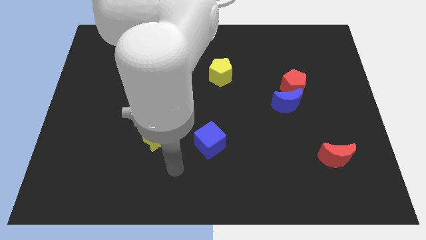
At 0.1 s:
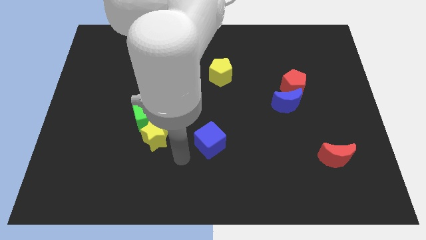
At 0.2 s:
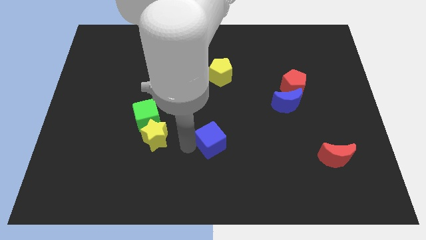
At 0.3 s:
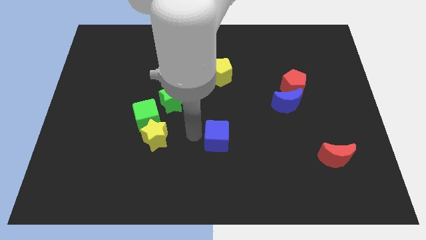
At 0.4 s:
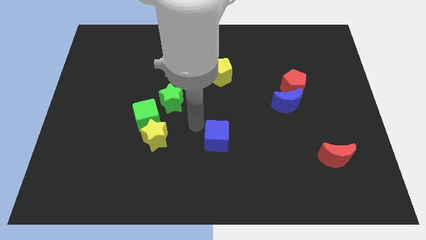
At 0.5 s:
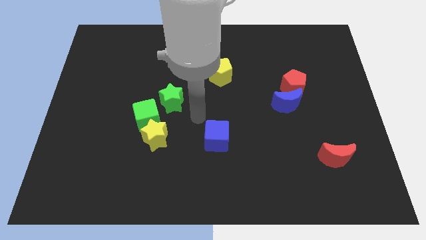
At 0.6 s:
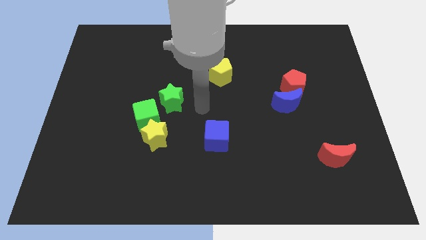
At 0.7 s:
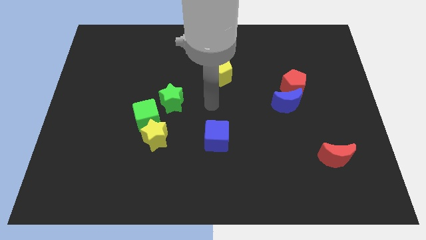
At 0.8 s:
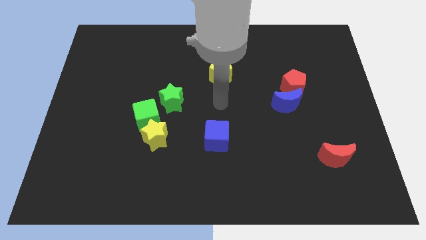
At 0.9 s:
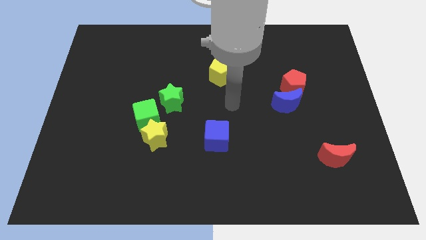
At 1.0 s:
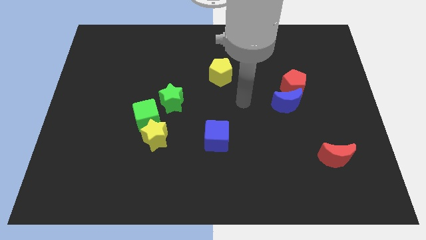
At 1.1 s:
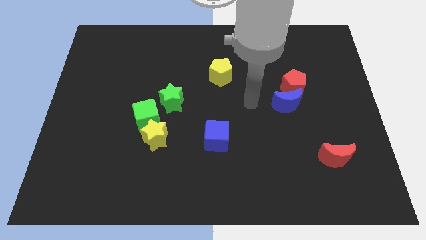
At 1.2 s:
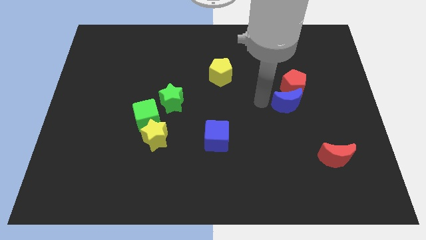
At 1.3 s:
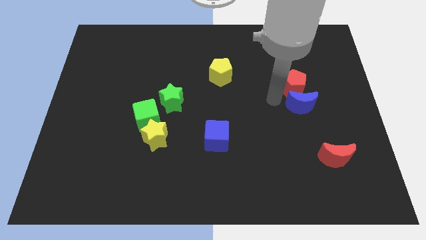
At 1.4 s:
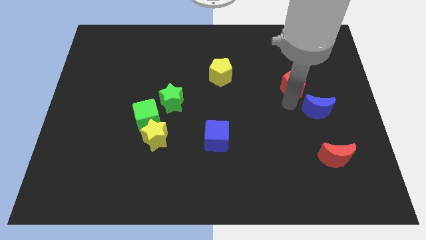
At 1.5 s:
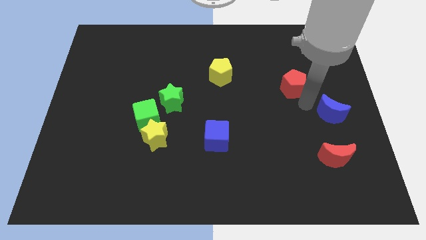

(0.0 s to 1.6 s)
separate the red pentagon from the blue moon

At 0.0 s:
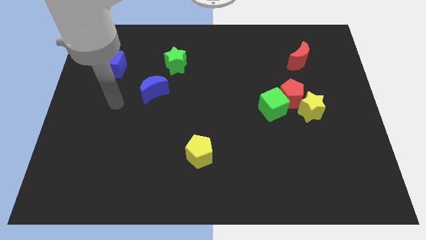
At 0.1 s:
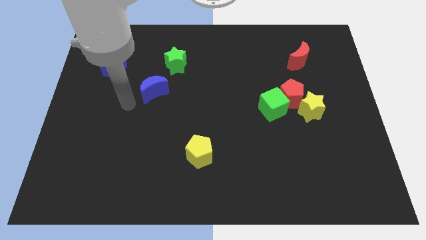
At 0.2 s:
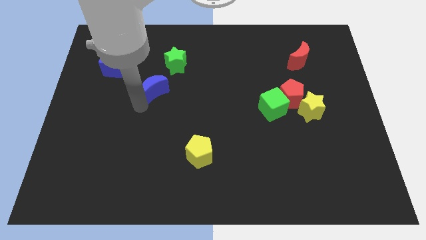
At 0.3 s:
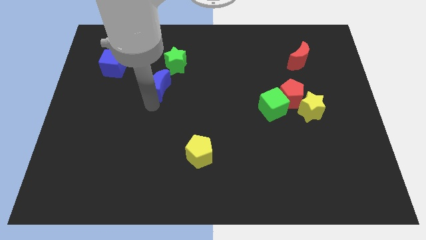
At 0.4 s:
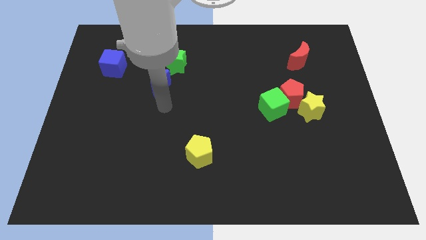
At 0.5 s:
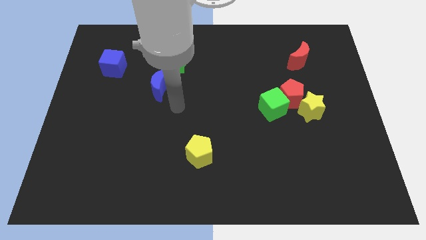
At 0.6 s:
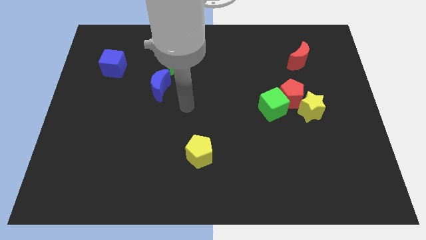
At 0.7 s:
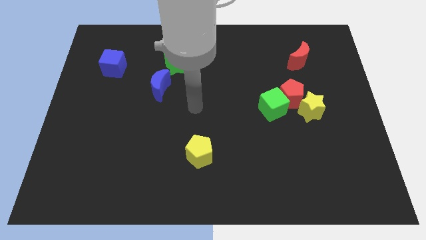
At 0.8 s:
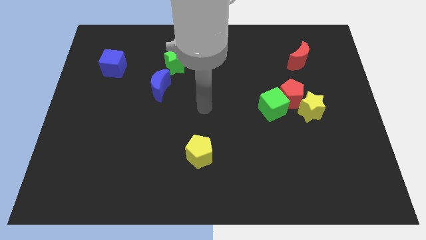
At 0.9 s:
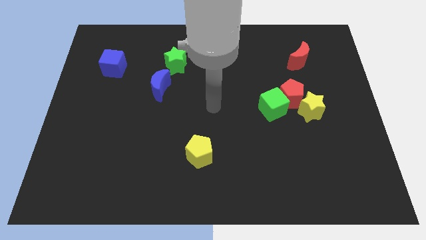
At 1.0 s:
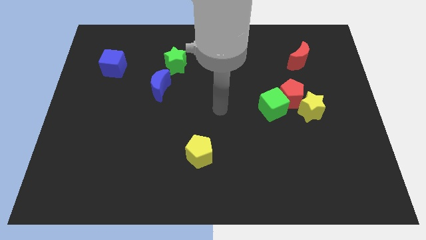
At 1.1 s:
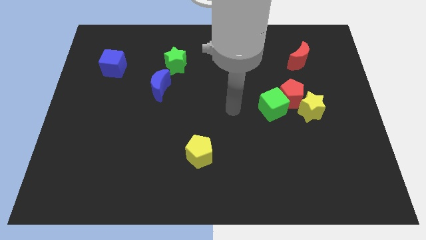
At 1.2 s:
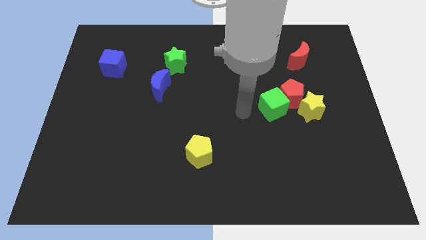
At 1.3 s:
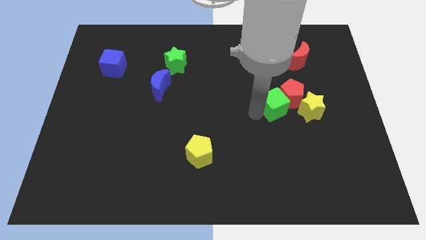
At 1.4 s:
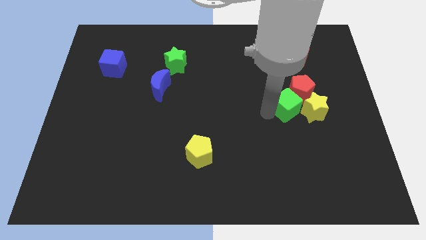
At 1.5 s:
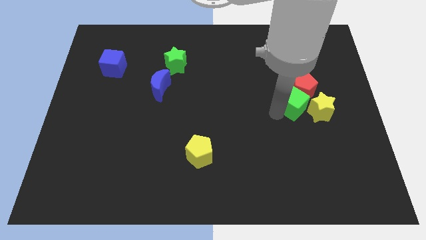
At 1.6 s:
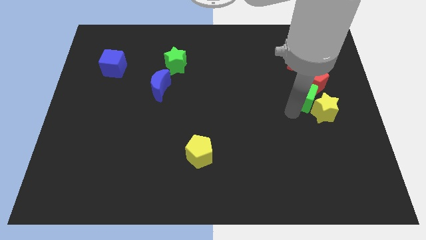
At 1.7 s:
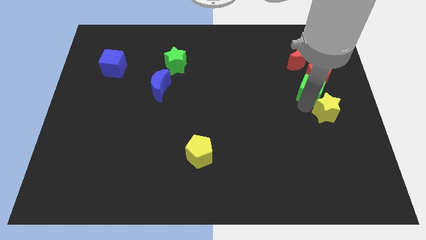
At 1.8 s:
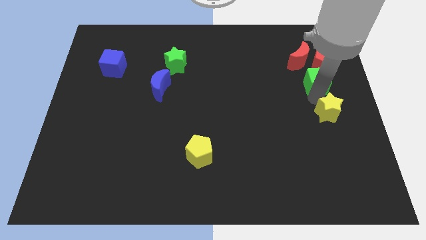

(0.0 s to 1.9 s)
separate the red pentagon from the green cube and yellow star

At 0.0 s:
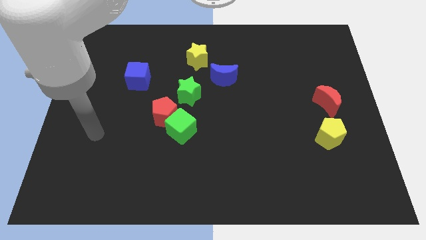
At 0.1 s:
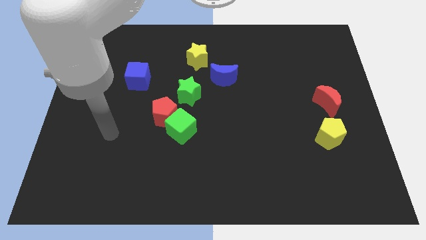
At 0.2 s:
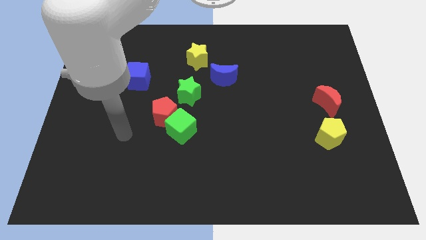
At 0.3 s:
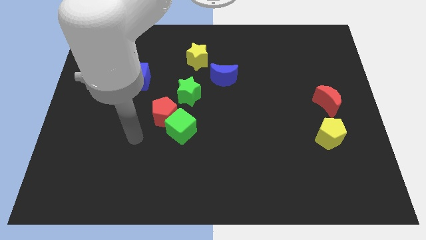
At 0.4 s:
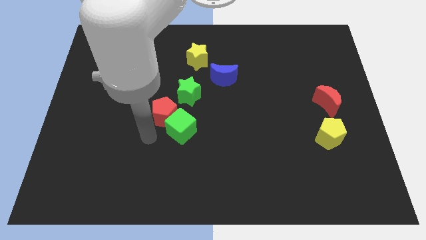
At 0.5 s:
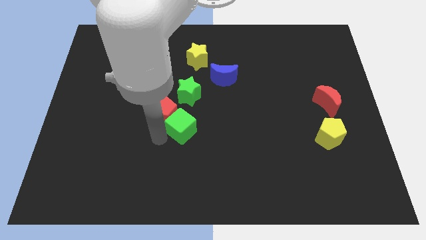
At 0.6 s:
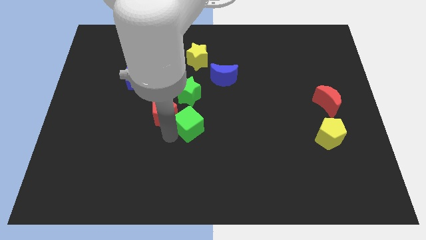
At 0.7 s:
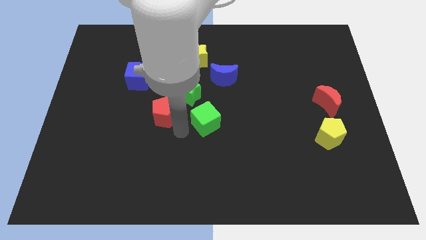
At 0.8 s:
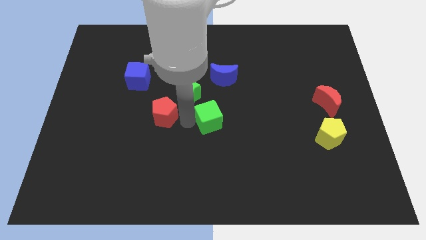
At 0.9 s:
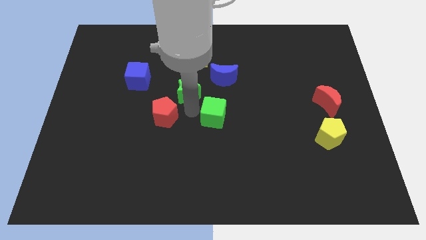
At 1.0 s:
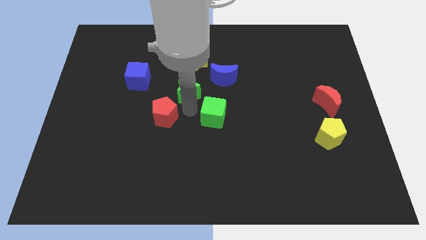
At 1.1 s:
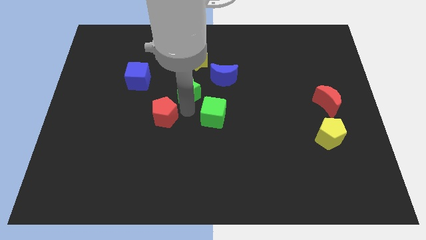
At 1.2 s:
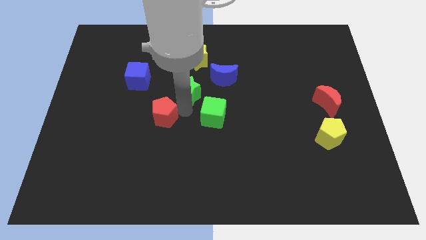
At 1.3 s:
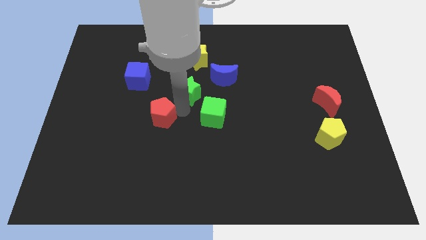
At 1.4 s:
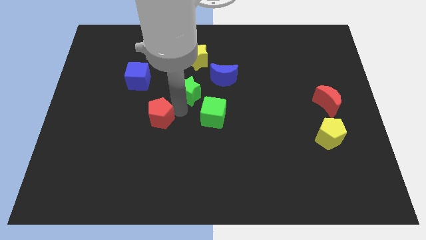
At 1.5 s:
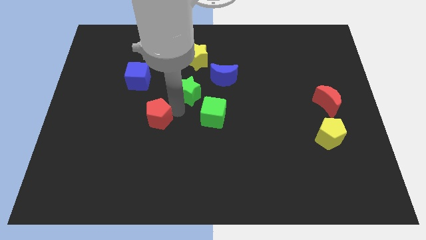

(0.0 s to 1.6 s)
separate the red pentagon from the green cube and green star

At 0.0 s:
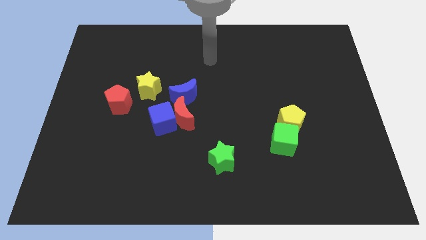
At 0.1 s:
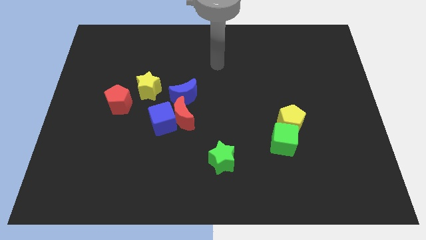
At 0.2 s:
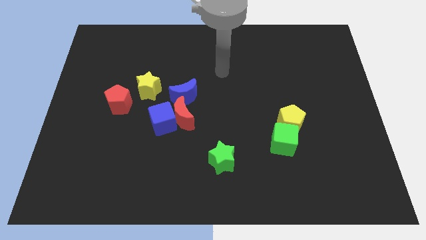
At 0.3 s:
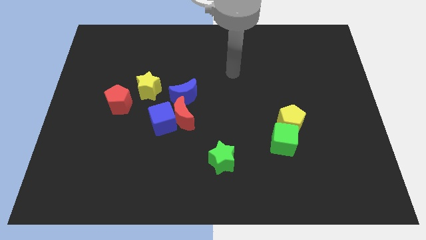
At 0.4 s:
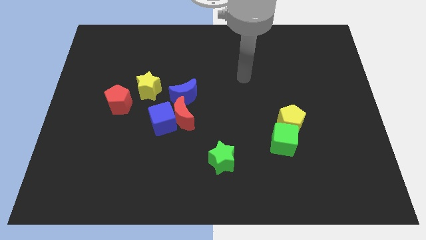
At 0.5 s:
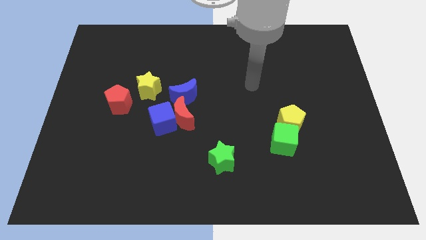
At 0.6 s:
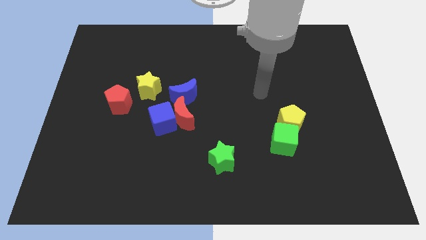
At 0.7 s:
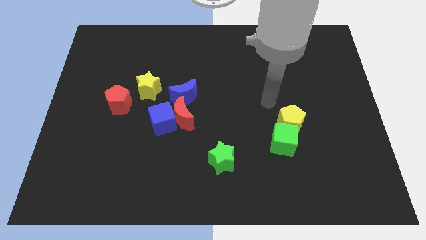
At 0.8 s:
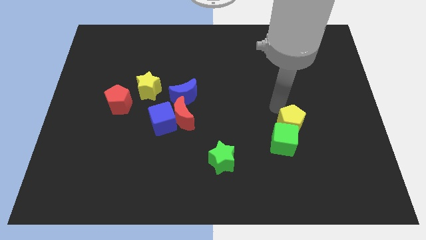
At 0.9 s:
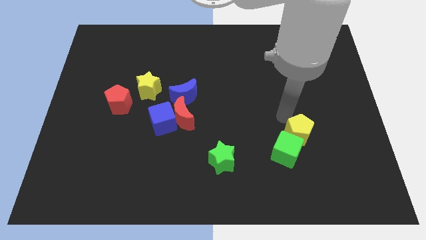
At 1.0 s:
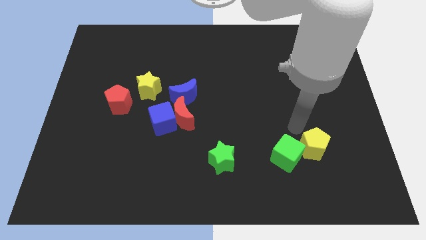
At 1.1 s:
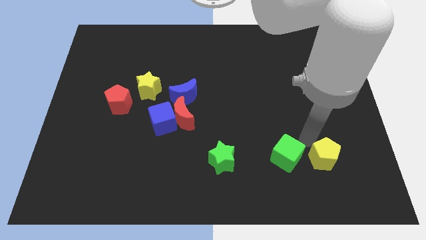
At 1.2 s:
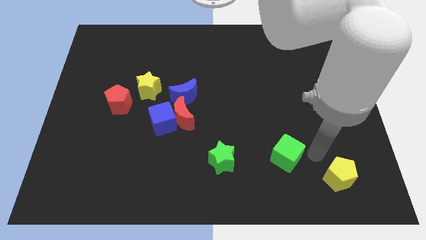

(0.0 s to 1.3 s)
separate the green cube from the yellow pentagon

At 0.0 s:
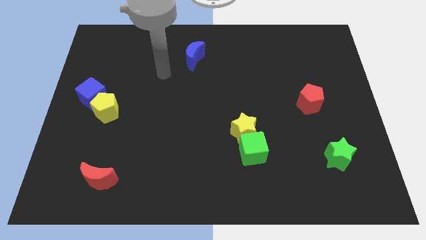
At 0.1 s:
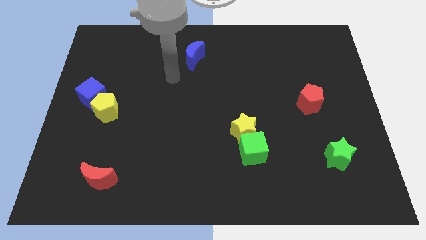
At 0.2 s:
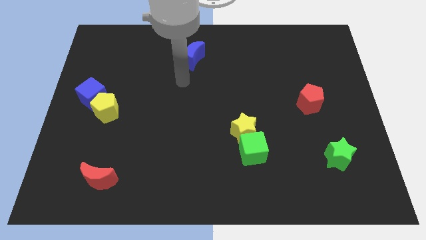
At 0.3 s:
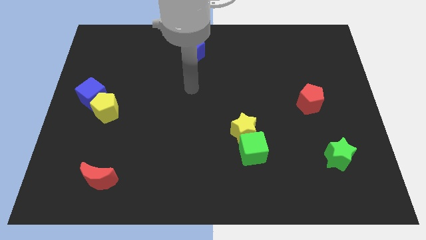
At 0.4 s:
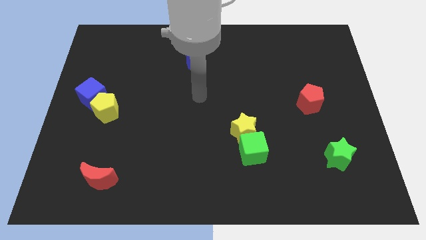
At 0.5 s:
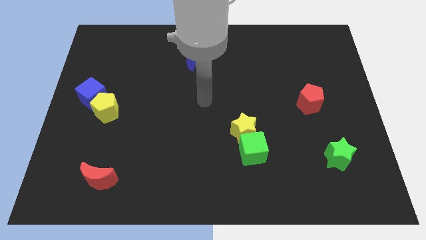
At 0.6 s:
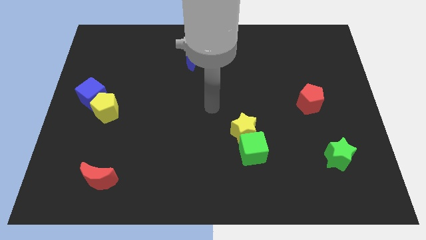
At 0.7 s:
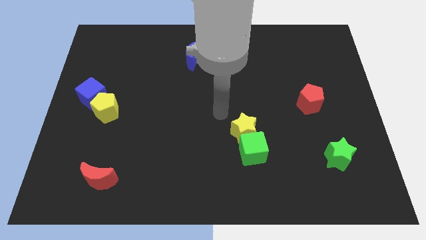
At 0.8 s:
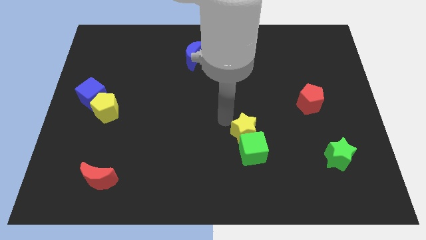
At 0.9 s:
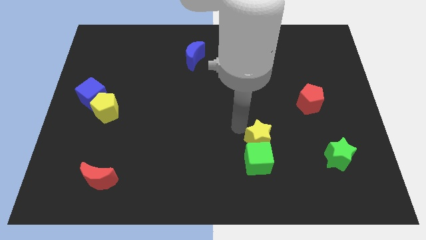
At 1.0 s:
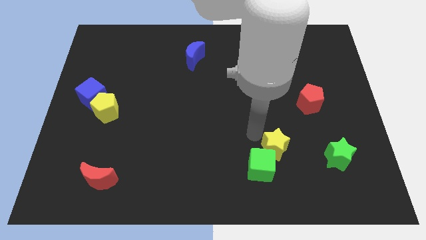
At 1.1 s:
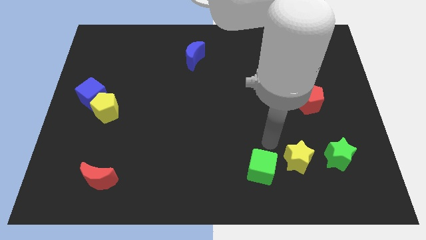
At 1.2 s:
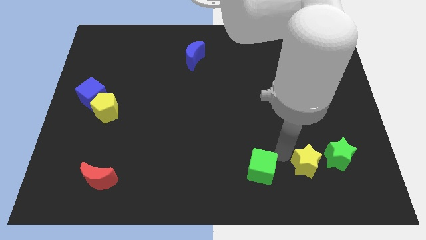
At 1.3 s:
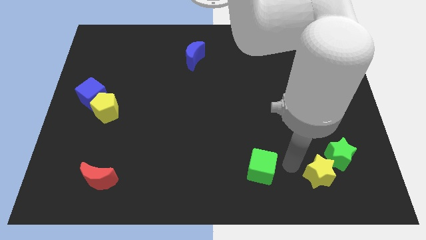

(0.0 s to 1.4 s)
pull the green cube apart from the yellow star

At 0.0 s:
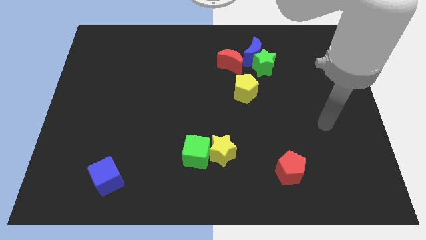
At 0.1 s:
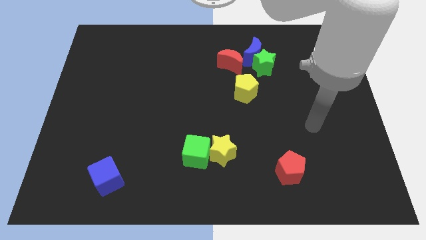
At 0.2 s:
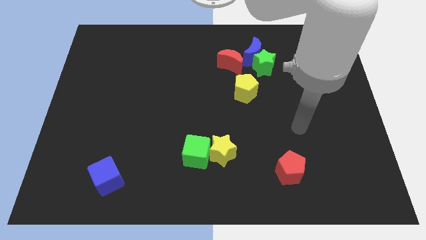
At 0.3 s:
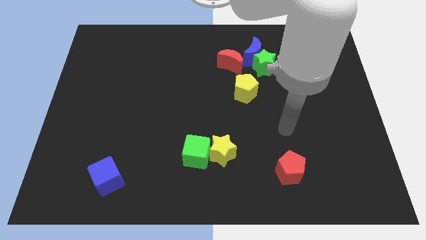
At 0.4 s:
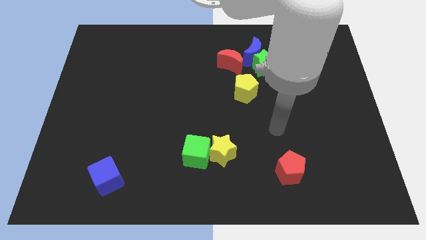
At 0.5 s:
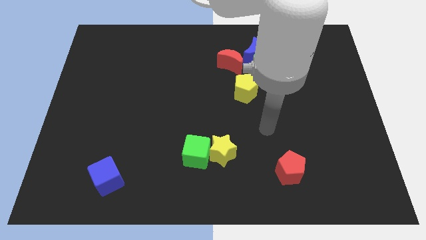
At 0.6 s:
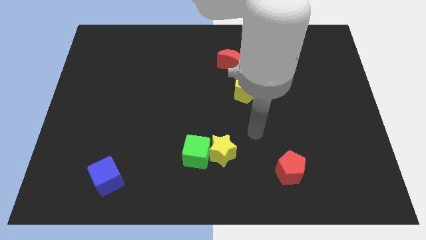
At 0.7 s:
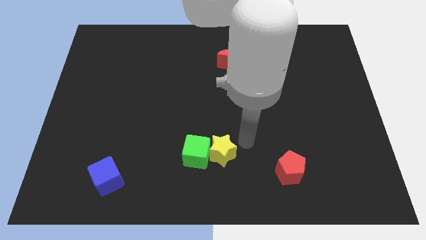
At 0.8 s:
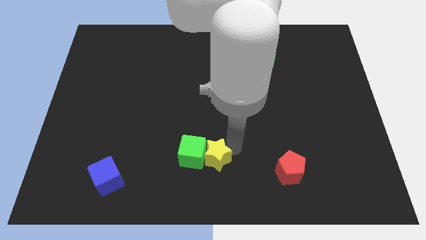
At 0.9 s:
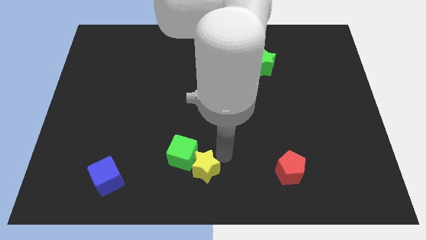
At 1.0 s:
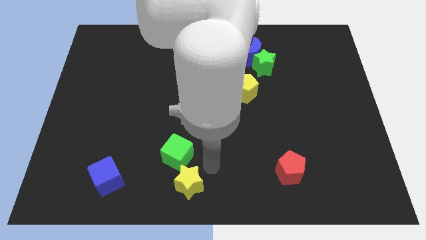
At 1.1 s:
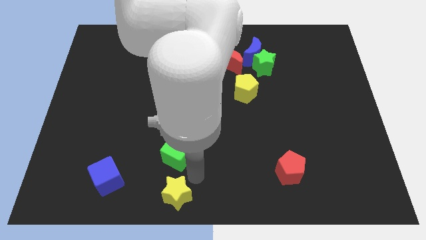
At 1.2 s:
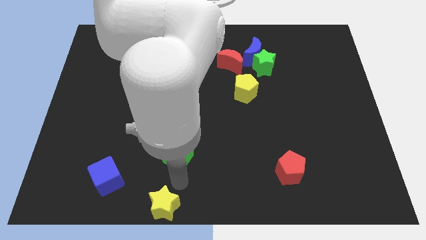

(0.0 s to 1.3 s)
move the green cube away from the yellow star

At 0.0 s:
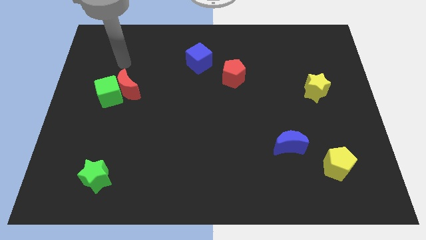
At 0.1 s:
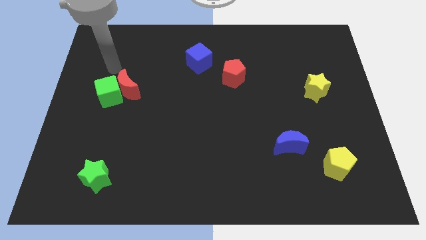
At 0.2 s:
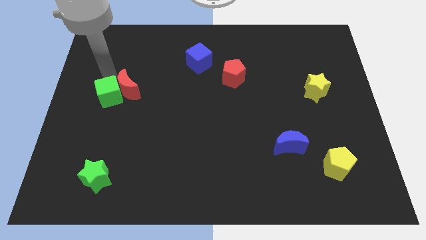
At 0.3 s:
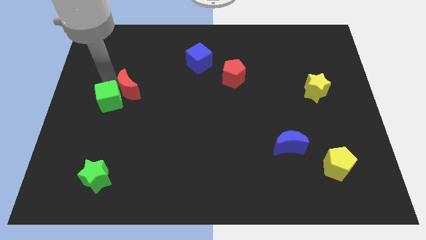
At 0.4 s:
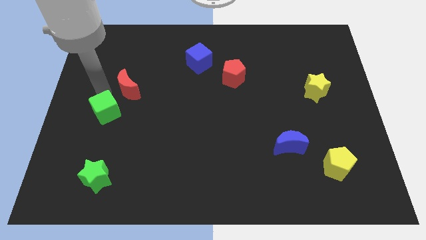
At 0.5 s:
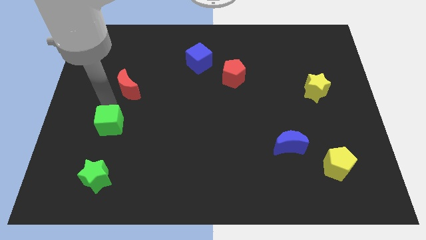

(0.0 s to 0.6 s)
separate the red moon from the green cube
